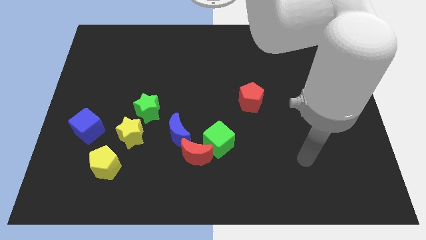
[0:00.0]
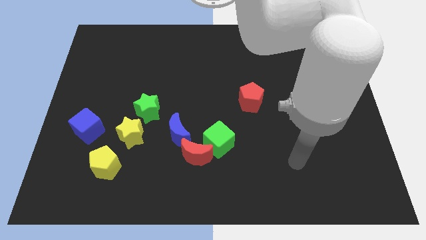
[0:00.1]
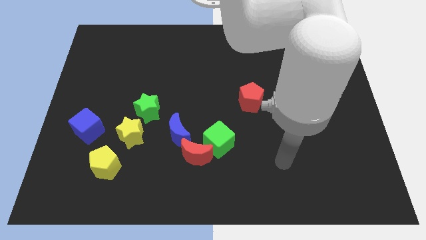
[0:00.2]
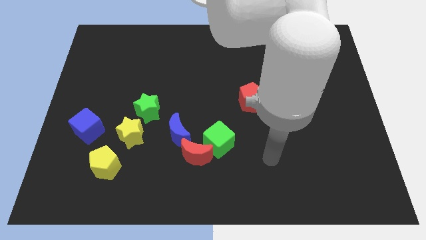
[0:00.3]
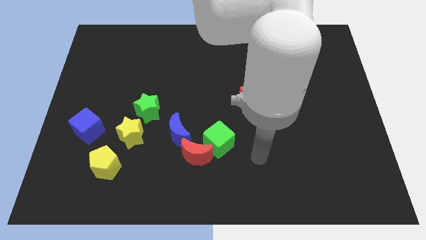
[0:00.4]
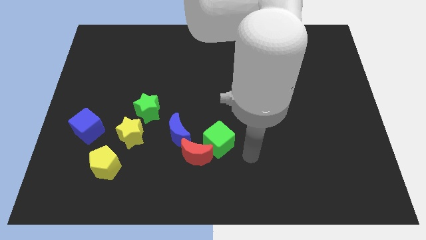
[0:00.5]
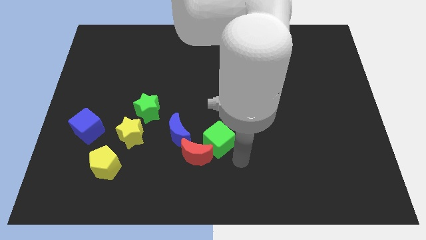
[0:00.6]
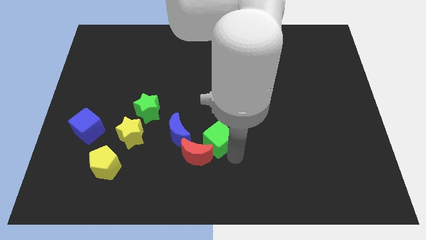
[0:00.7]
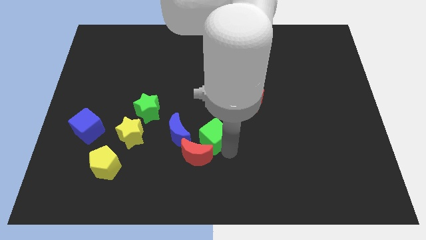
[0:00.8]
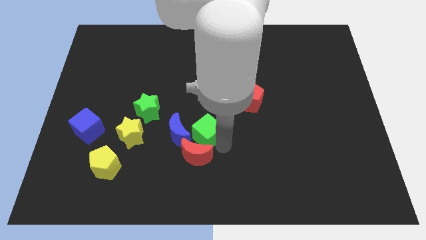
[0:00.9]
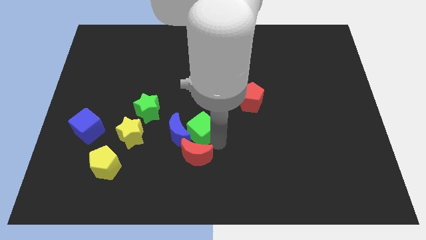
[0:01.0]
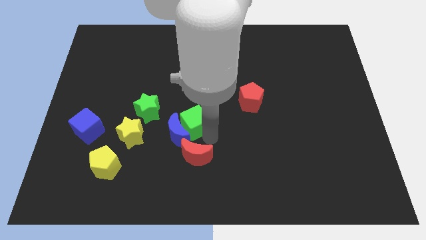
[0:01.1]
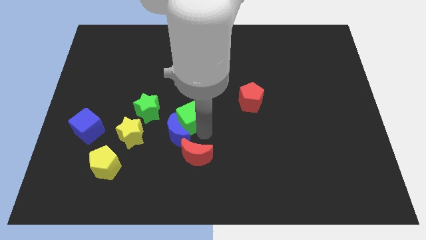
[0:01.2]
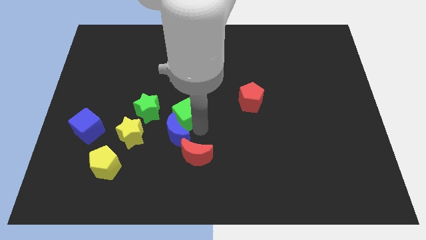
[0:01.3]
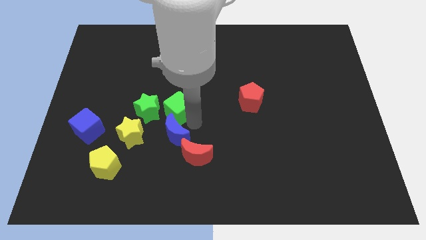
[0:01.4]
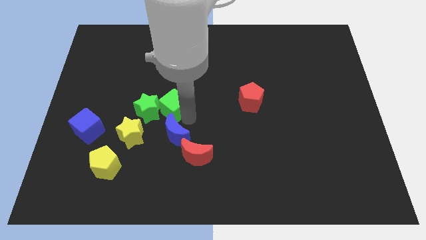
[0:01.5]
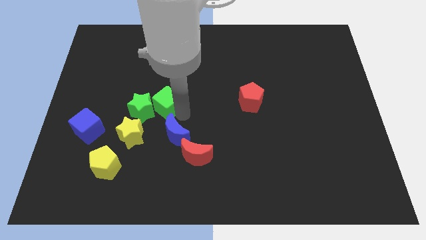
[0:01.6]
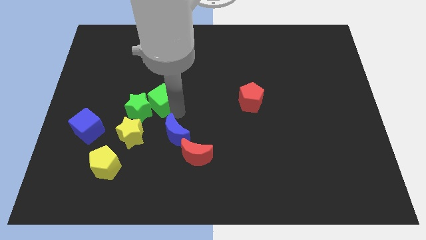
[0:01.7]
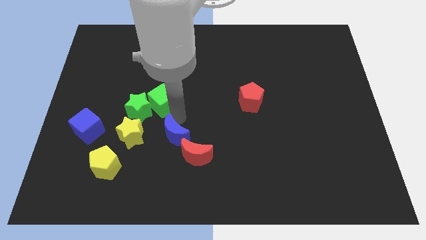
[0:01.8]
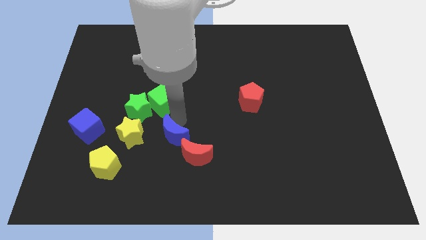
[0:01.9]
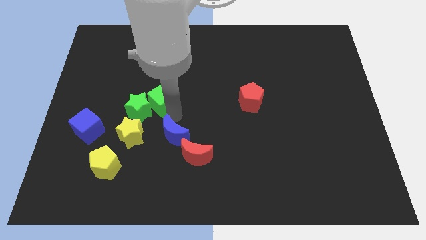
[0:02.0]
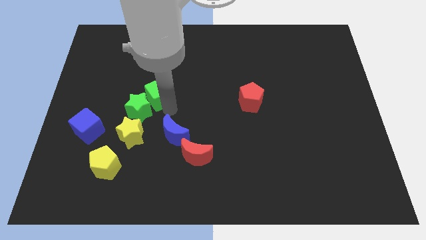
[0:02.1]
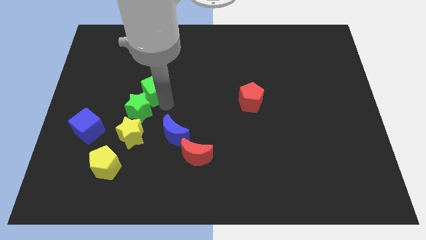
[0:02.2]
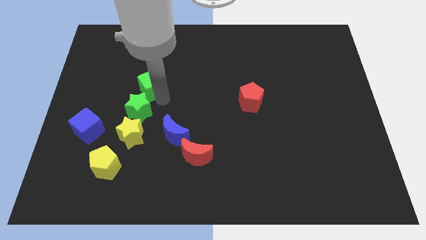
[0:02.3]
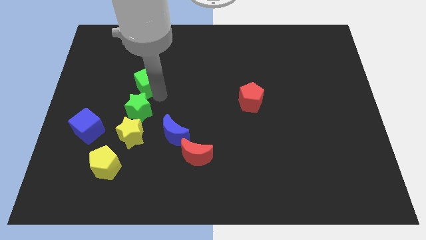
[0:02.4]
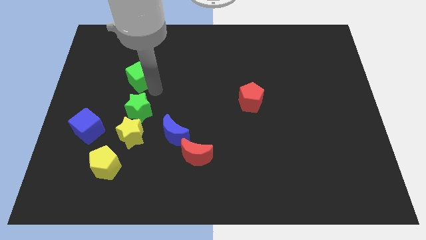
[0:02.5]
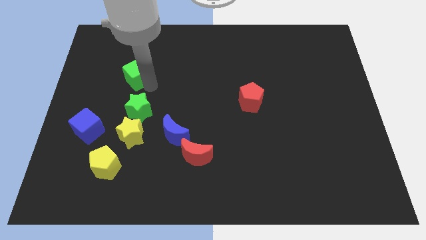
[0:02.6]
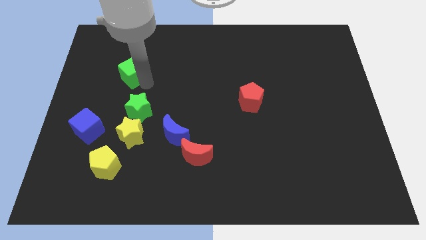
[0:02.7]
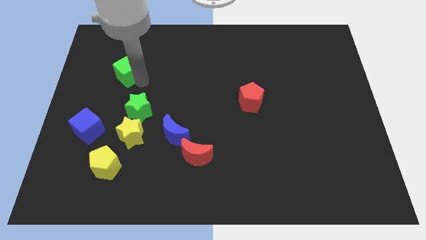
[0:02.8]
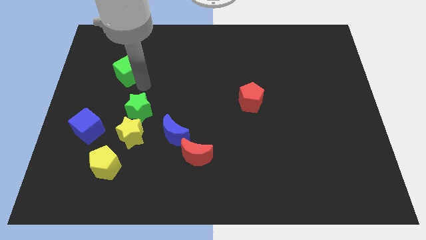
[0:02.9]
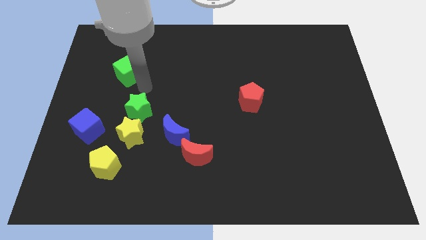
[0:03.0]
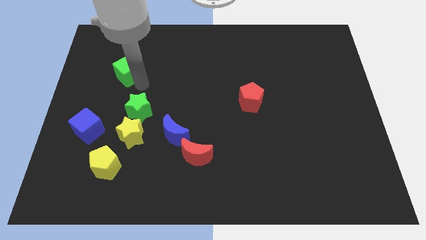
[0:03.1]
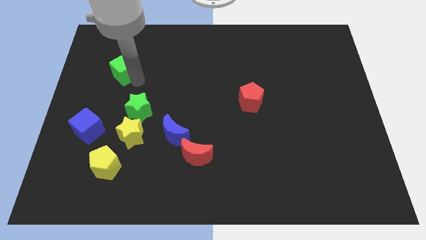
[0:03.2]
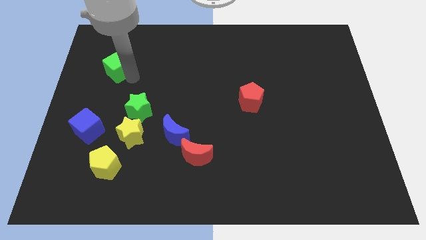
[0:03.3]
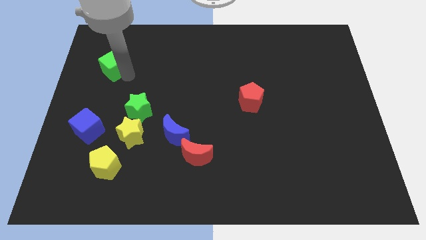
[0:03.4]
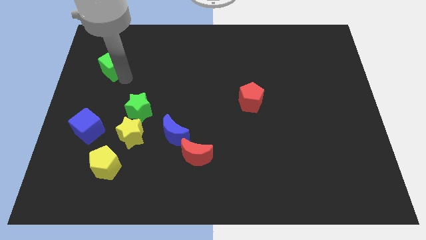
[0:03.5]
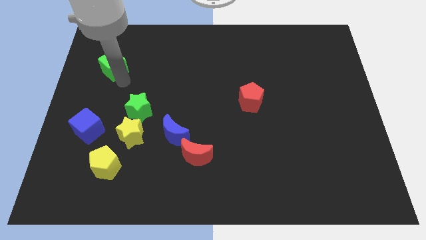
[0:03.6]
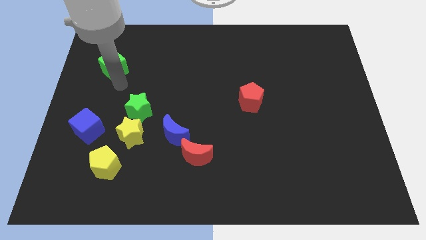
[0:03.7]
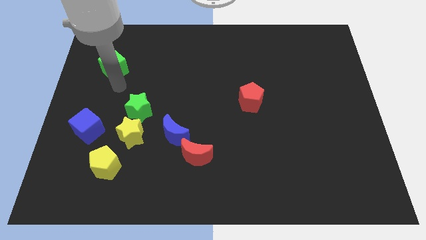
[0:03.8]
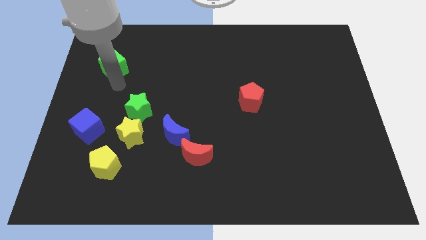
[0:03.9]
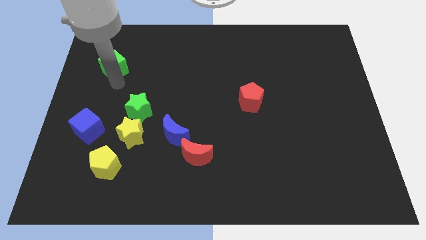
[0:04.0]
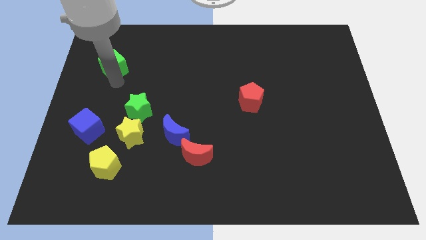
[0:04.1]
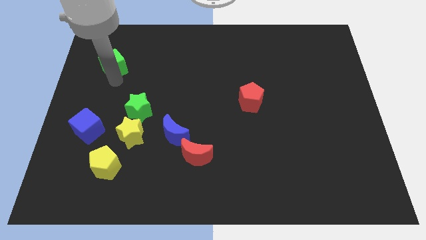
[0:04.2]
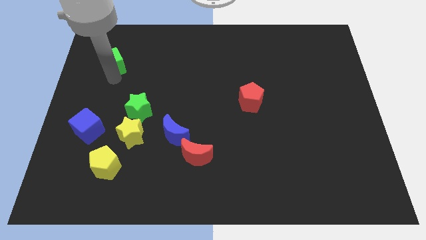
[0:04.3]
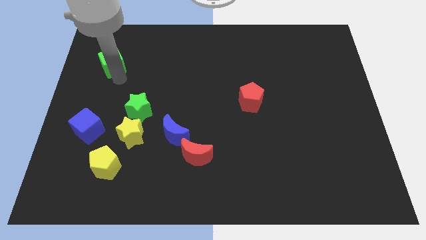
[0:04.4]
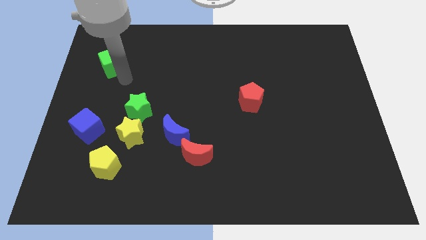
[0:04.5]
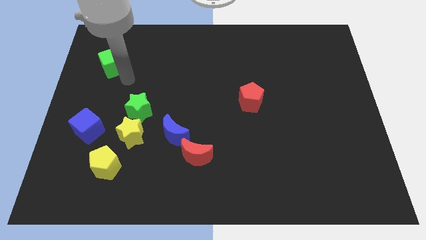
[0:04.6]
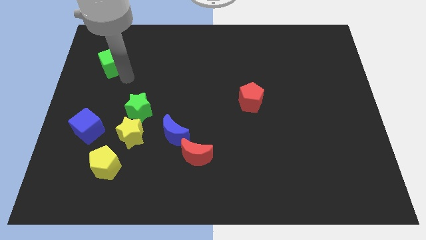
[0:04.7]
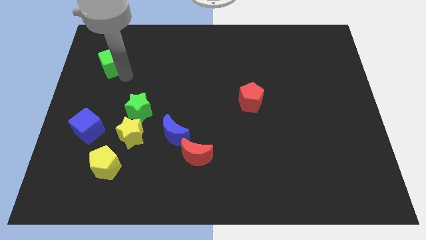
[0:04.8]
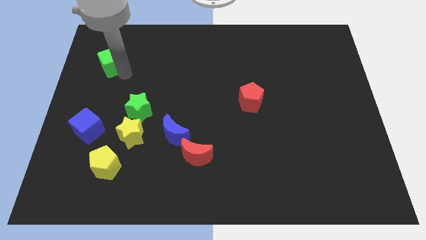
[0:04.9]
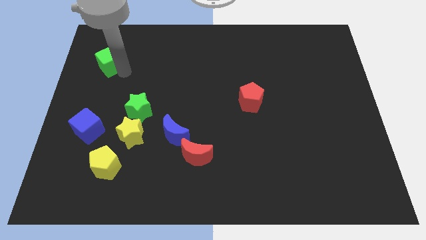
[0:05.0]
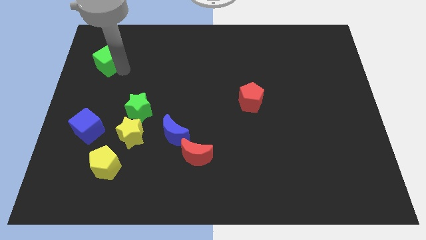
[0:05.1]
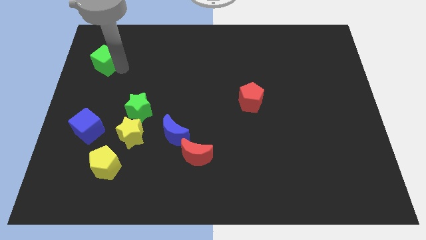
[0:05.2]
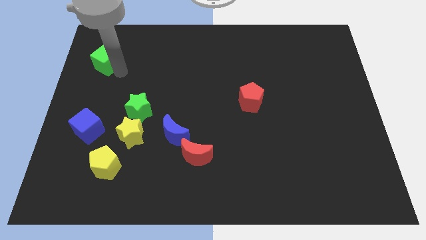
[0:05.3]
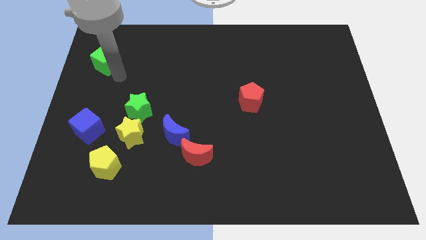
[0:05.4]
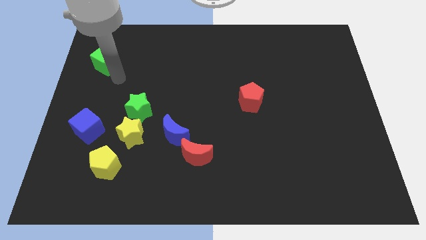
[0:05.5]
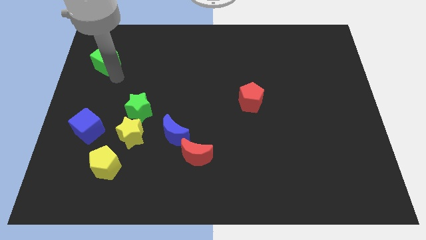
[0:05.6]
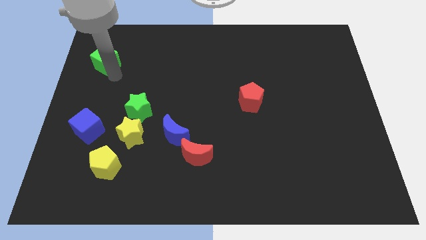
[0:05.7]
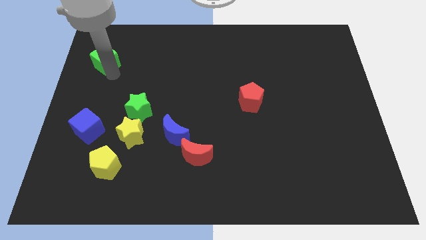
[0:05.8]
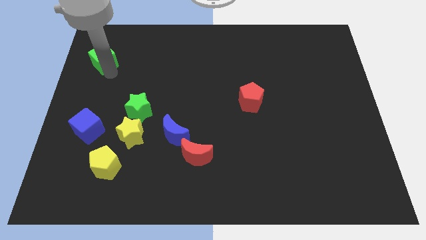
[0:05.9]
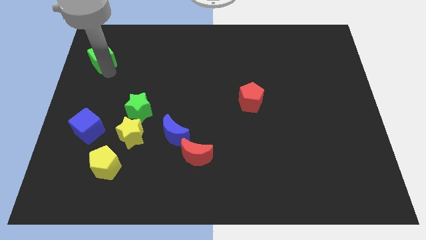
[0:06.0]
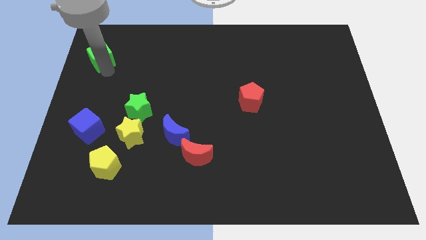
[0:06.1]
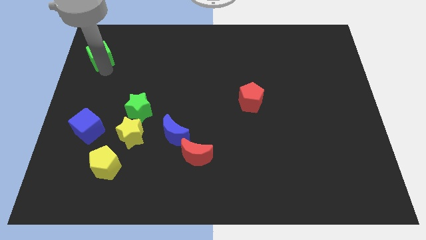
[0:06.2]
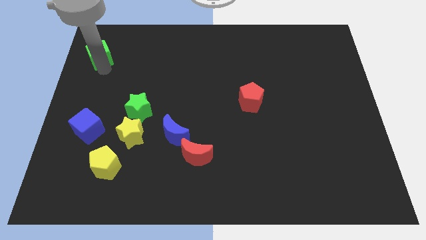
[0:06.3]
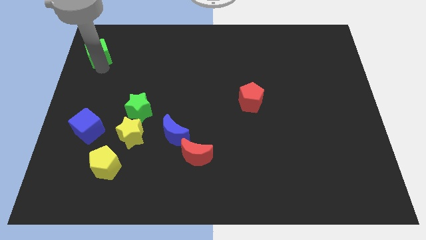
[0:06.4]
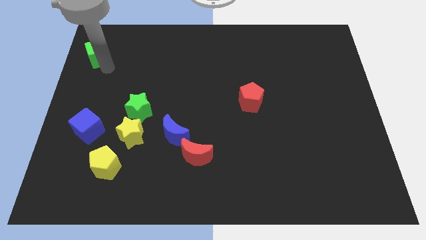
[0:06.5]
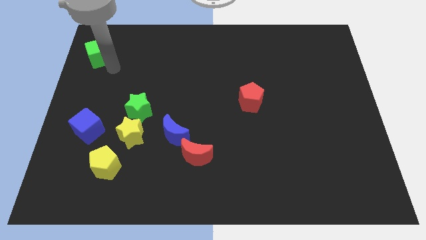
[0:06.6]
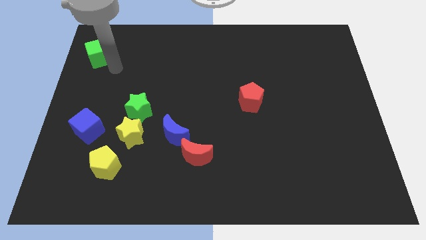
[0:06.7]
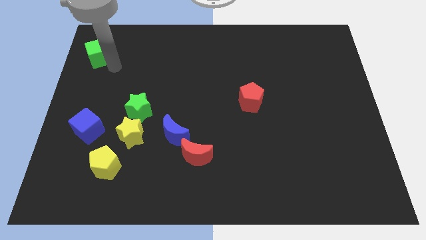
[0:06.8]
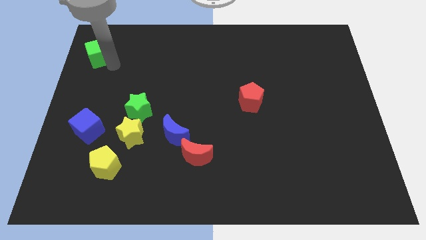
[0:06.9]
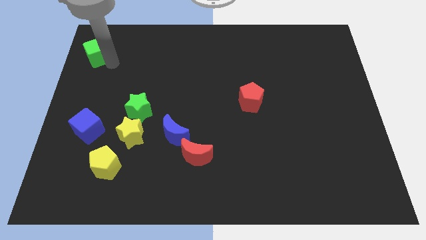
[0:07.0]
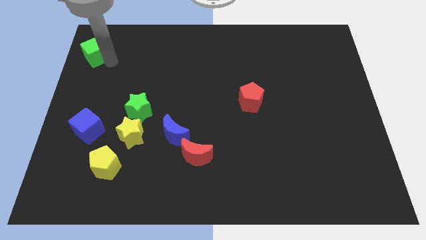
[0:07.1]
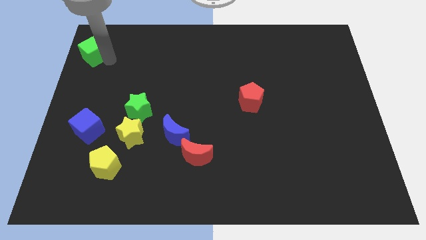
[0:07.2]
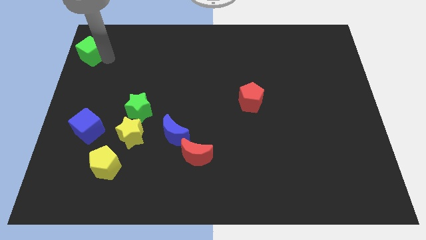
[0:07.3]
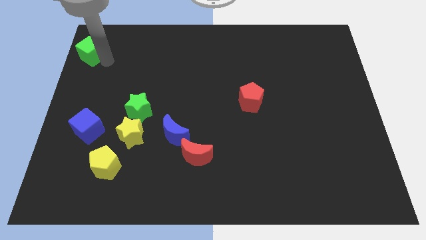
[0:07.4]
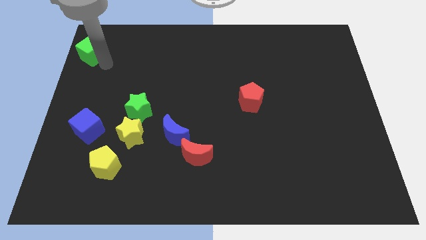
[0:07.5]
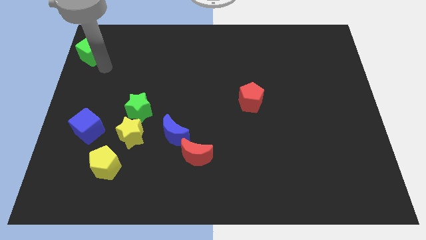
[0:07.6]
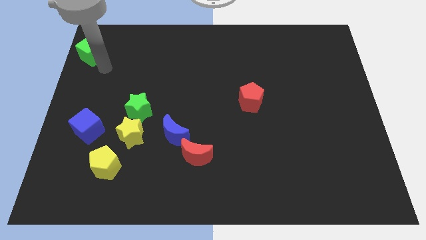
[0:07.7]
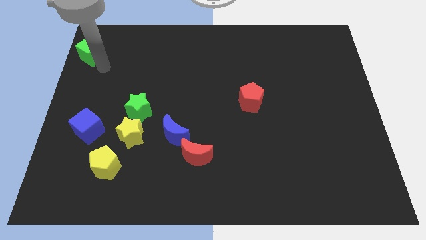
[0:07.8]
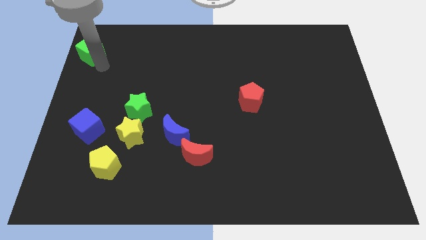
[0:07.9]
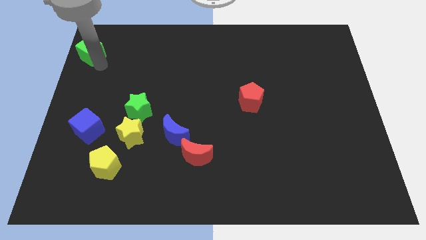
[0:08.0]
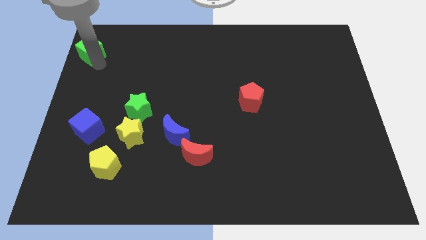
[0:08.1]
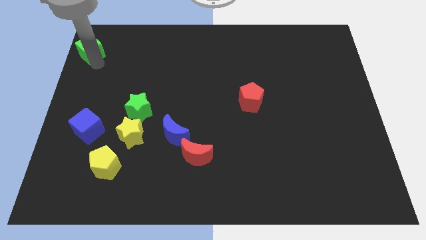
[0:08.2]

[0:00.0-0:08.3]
slide the green cube to the top left corner
